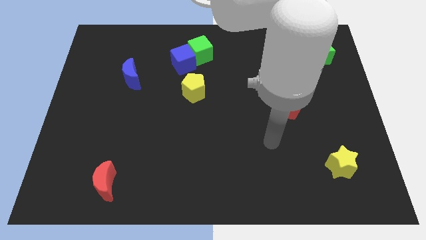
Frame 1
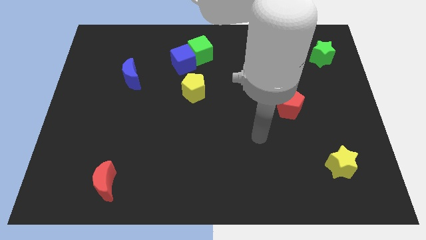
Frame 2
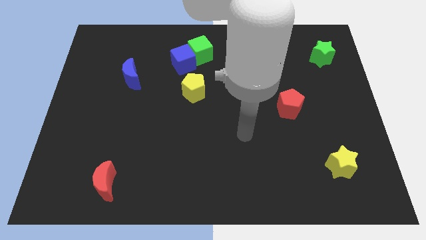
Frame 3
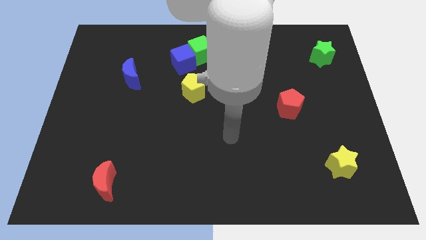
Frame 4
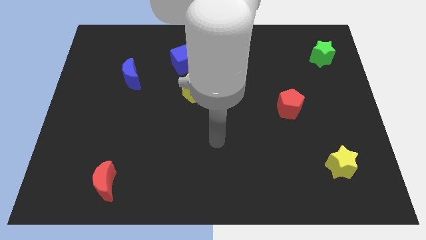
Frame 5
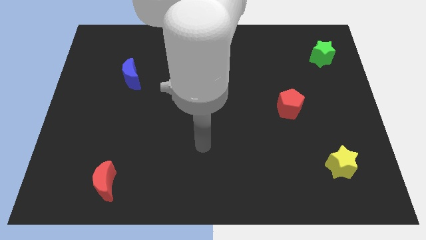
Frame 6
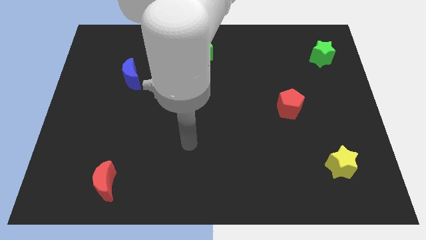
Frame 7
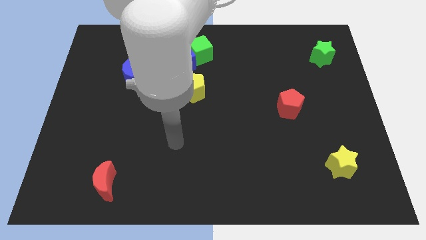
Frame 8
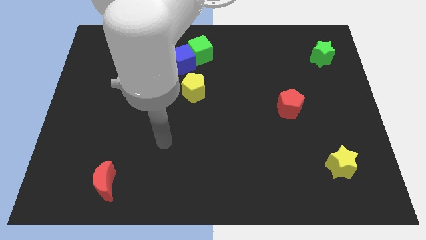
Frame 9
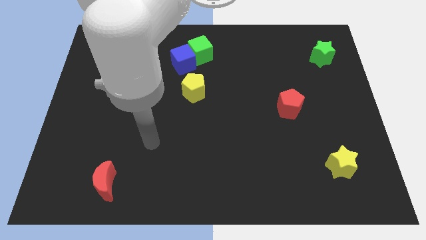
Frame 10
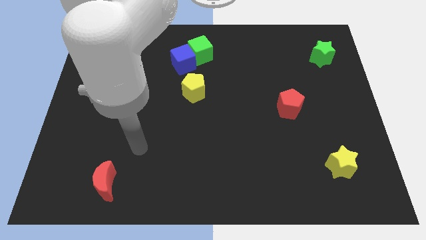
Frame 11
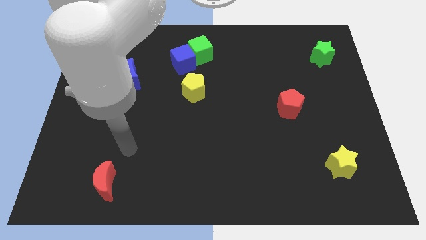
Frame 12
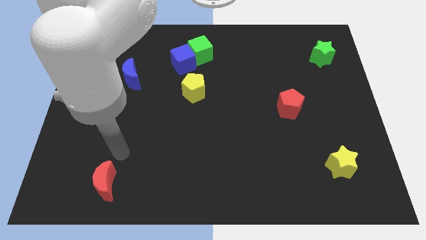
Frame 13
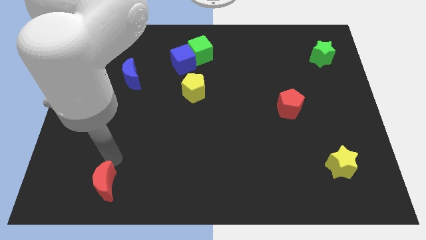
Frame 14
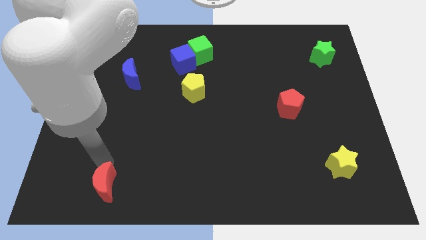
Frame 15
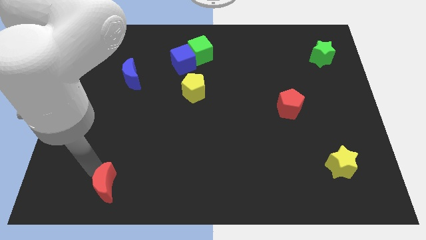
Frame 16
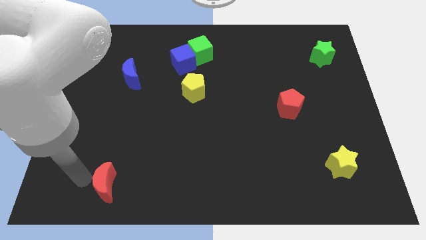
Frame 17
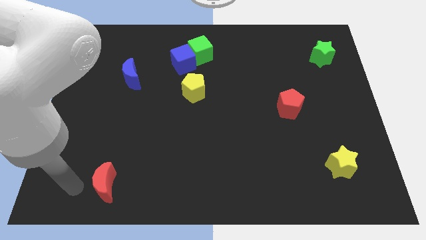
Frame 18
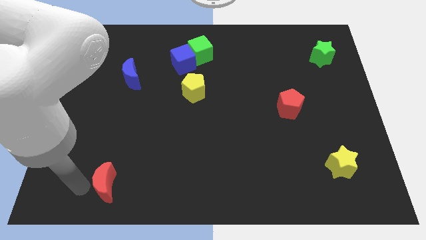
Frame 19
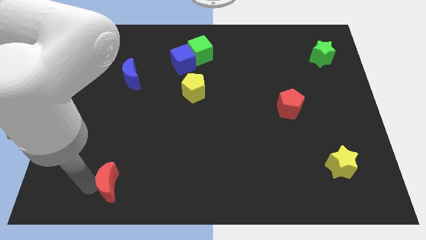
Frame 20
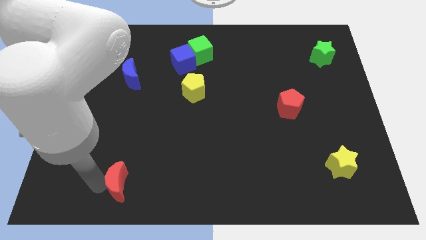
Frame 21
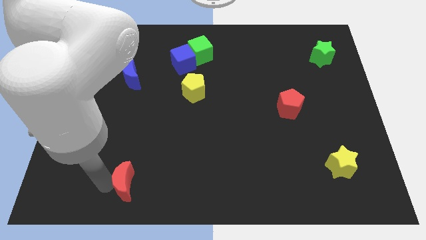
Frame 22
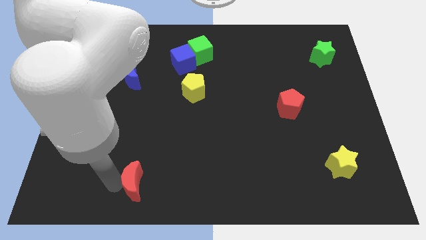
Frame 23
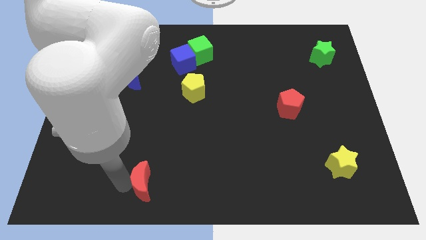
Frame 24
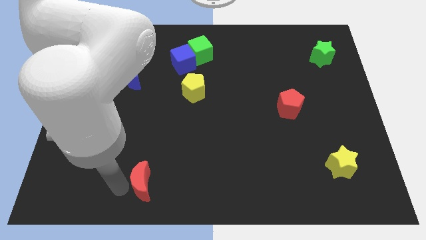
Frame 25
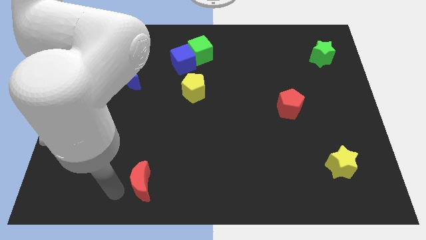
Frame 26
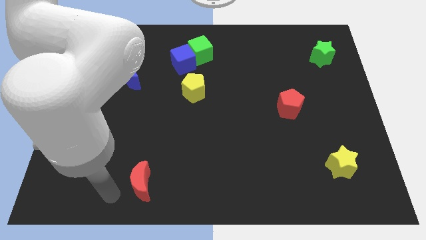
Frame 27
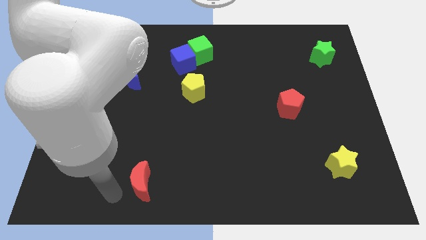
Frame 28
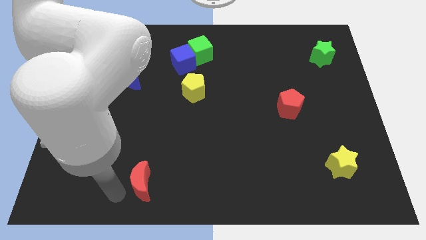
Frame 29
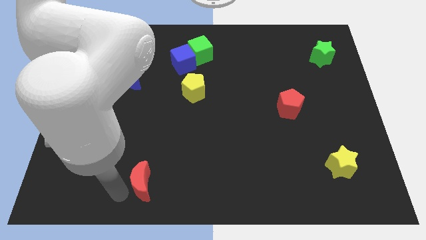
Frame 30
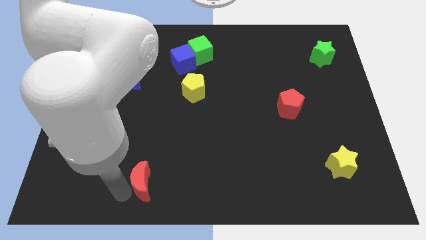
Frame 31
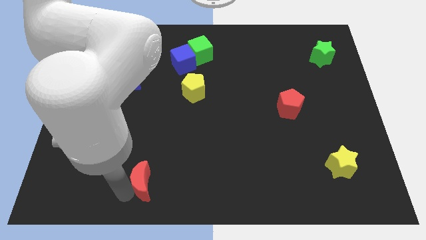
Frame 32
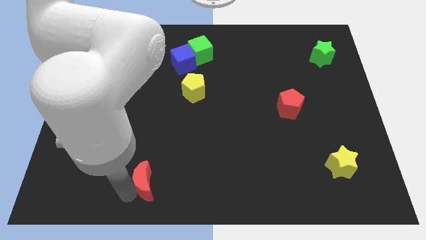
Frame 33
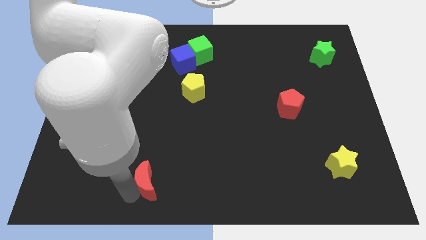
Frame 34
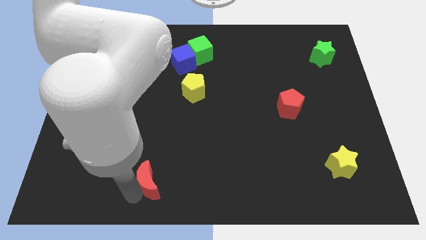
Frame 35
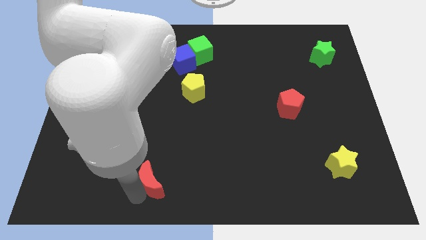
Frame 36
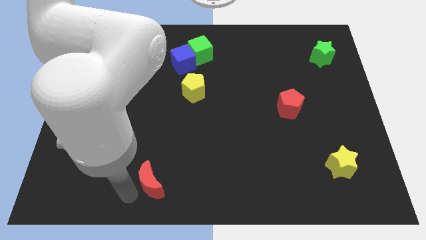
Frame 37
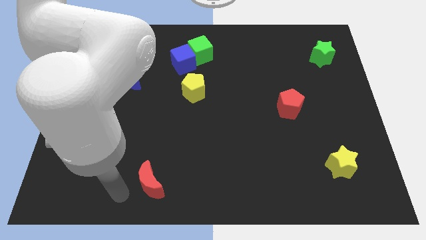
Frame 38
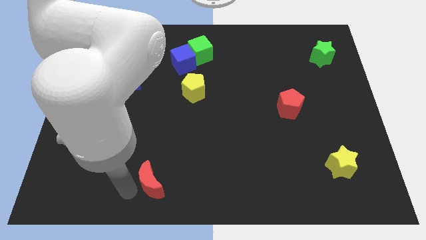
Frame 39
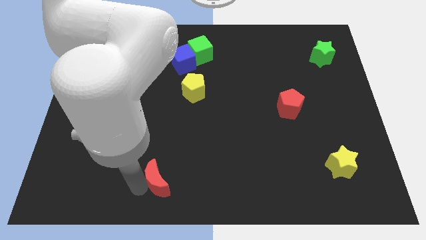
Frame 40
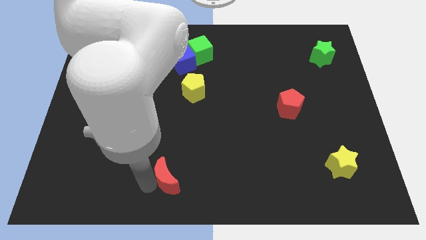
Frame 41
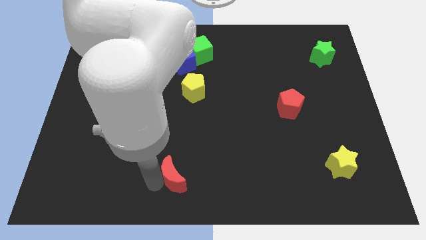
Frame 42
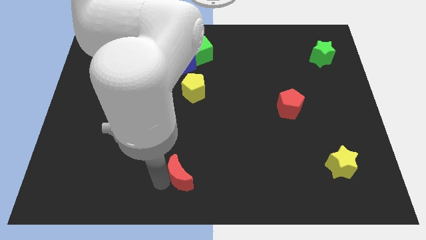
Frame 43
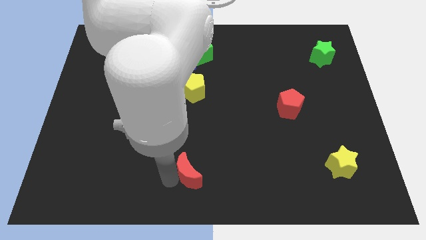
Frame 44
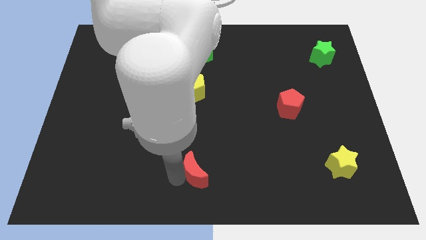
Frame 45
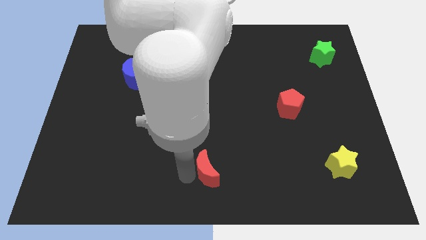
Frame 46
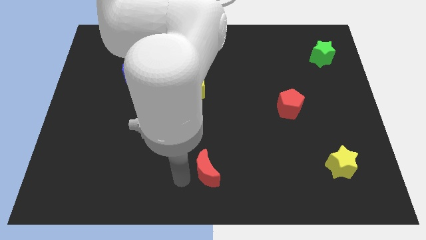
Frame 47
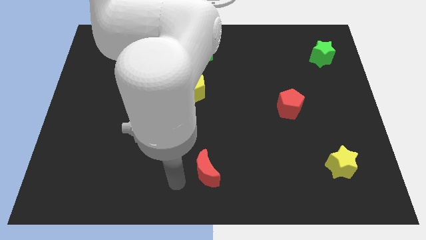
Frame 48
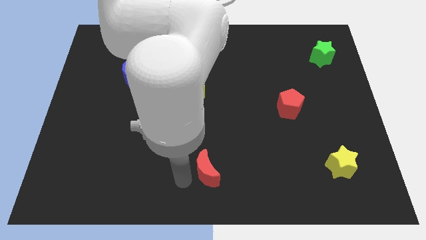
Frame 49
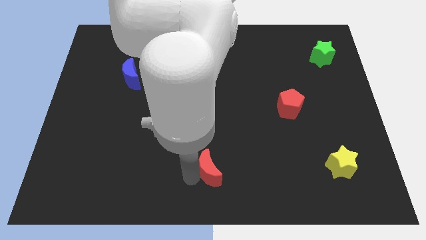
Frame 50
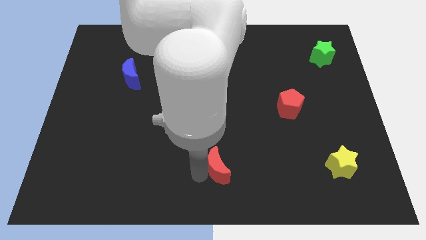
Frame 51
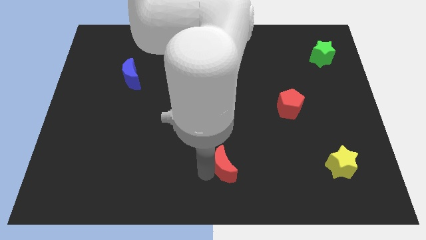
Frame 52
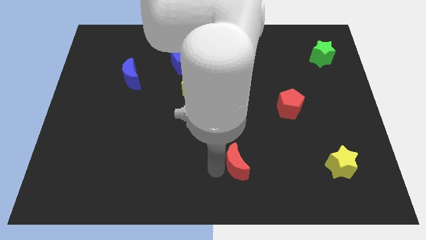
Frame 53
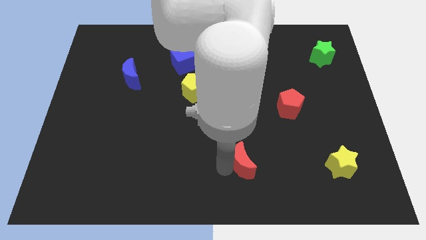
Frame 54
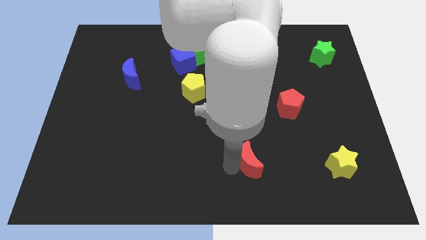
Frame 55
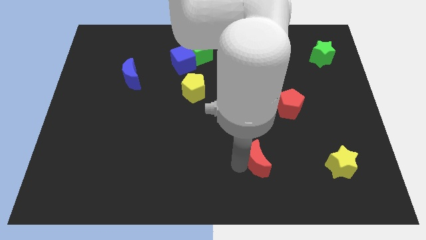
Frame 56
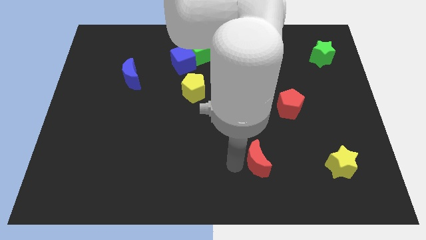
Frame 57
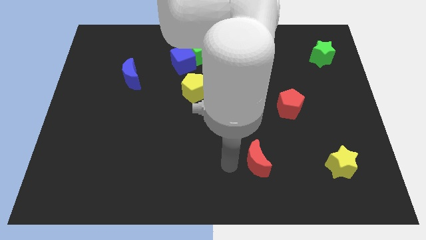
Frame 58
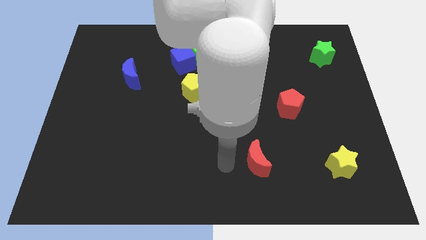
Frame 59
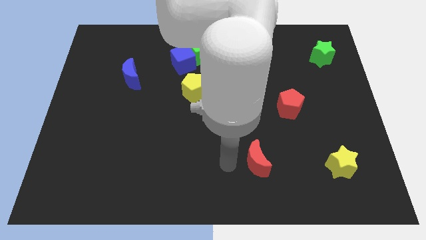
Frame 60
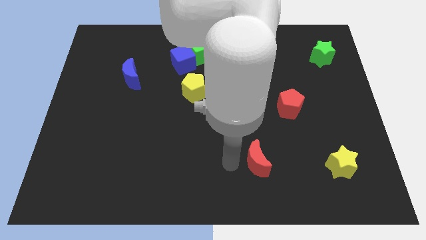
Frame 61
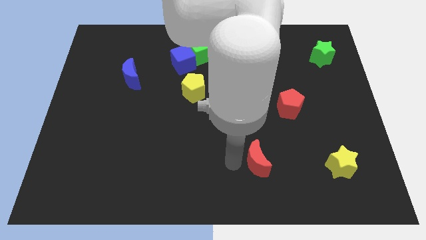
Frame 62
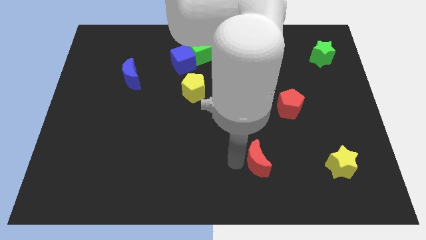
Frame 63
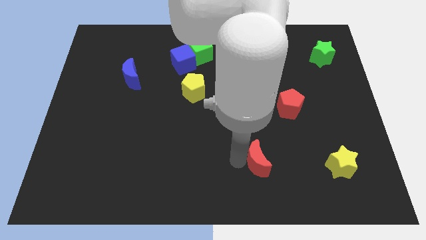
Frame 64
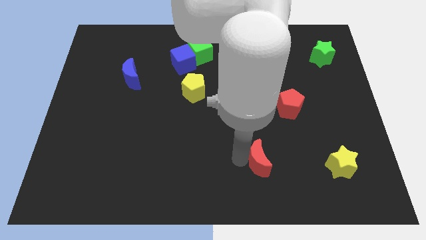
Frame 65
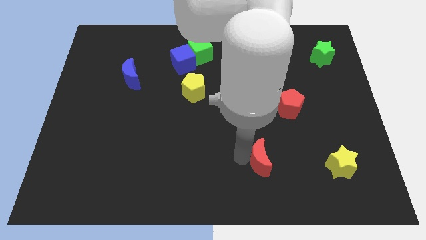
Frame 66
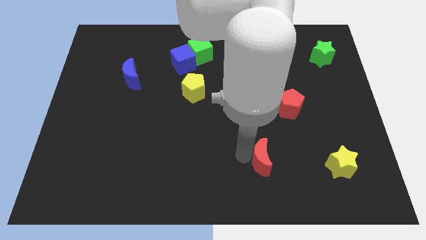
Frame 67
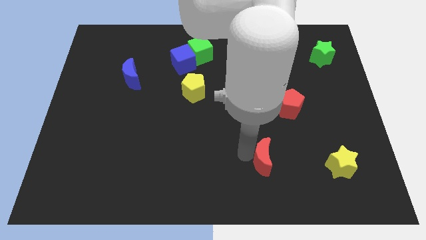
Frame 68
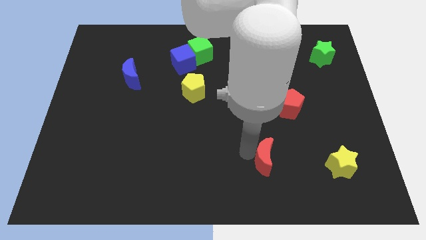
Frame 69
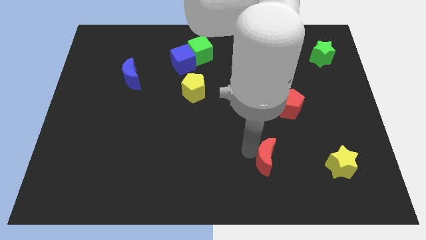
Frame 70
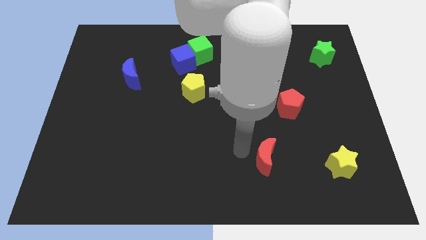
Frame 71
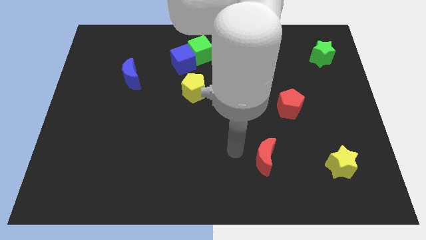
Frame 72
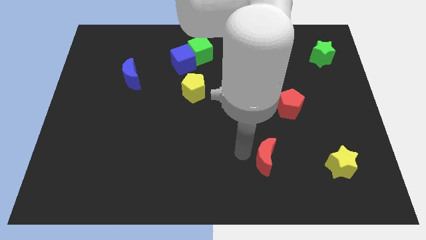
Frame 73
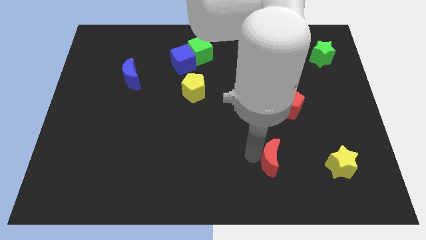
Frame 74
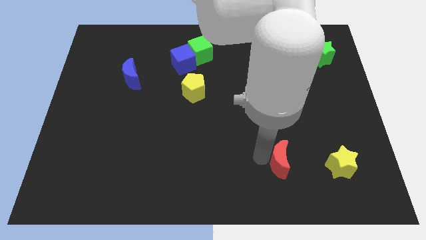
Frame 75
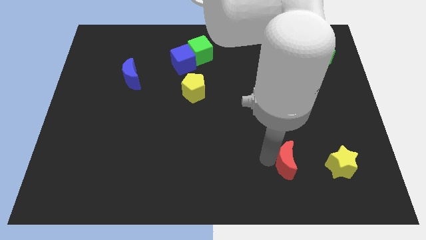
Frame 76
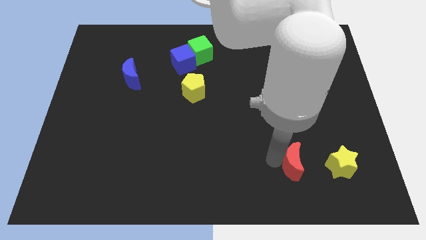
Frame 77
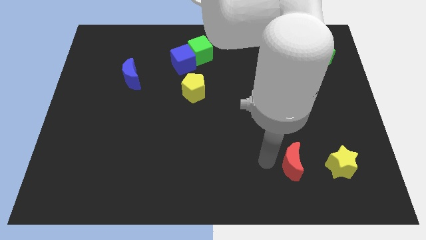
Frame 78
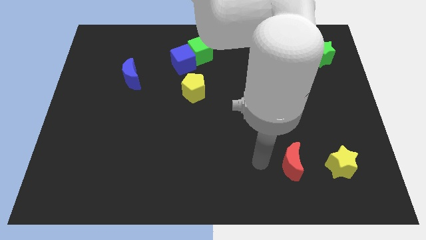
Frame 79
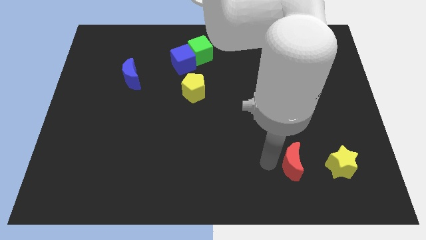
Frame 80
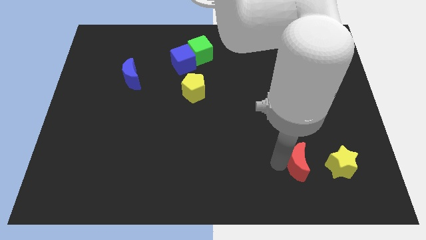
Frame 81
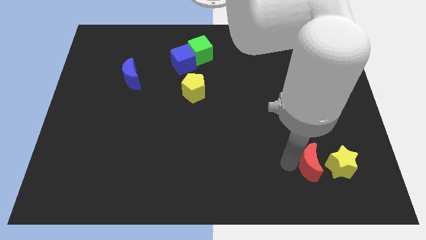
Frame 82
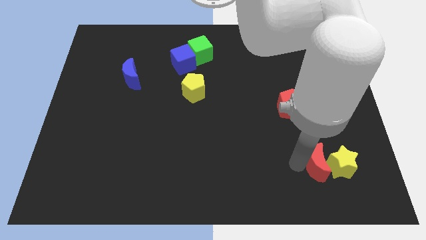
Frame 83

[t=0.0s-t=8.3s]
put the red moon to the yellow star
